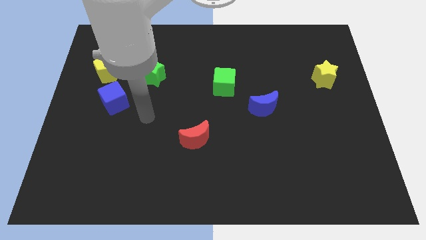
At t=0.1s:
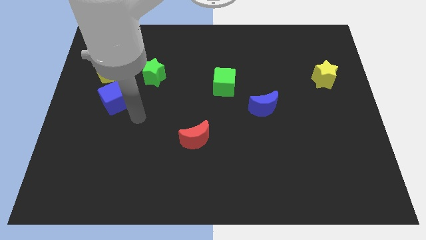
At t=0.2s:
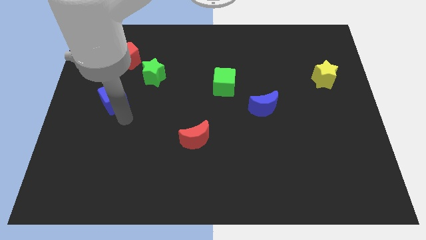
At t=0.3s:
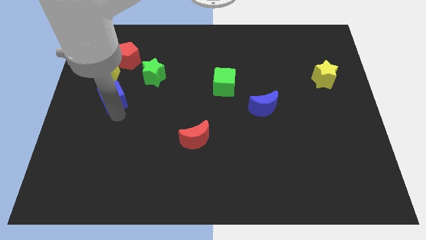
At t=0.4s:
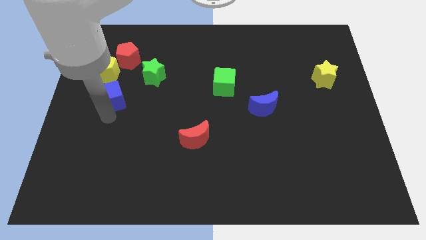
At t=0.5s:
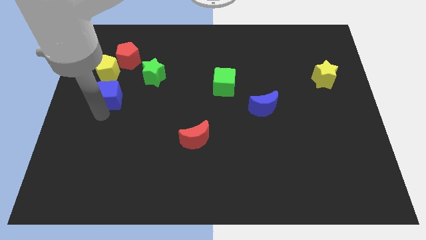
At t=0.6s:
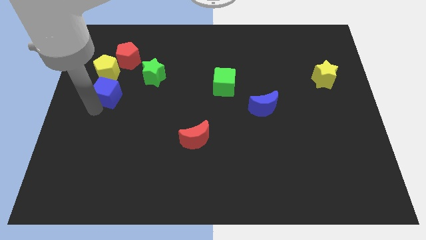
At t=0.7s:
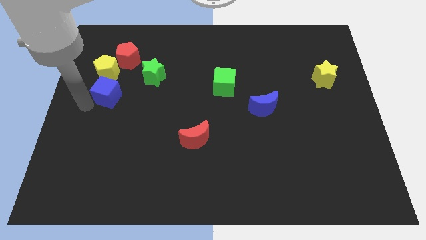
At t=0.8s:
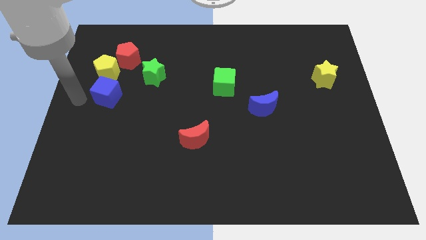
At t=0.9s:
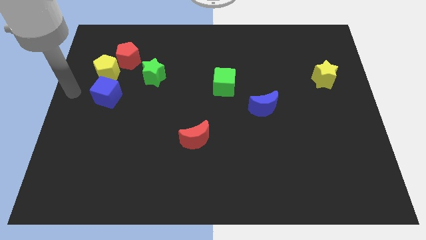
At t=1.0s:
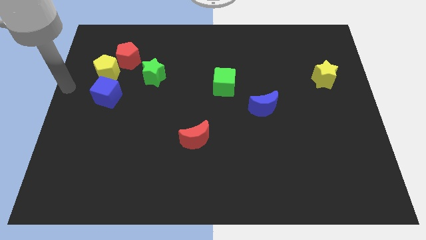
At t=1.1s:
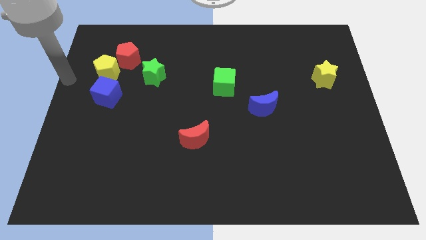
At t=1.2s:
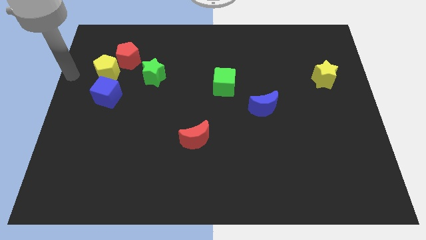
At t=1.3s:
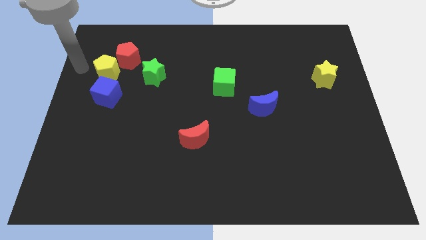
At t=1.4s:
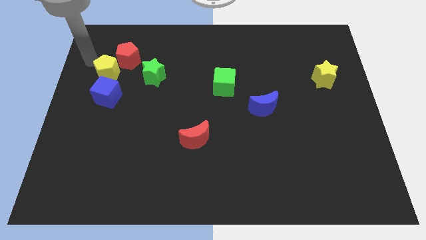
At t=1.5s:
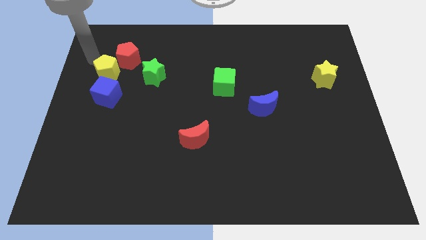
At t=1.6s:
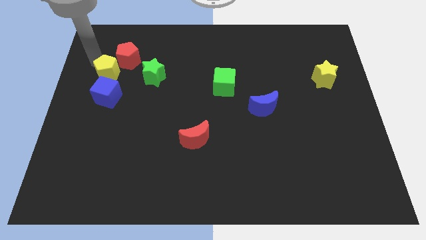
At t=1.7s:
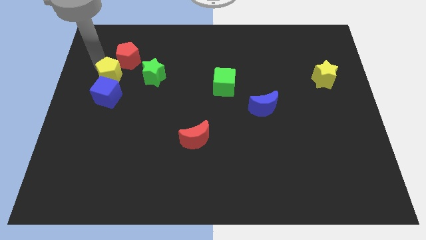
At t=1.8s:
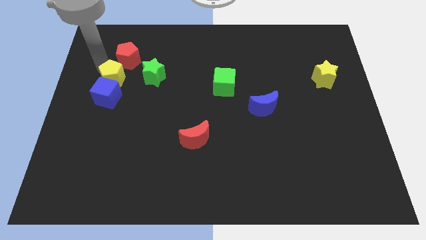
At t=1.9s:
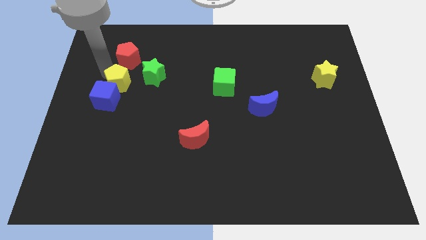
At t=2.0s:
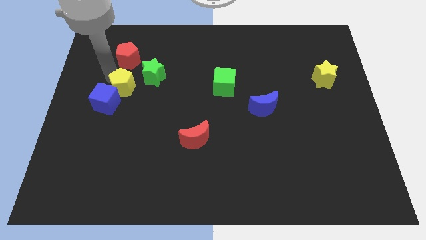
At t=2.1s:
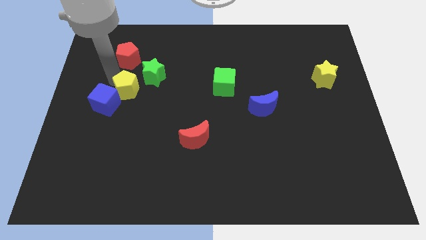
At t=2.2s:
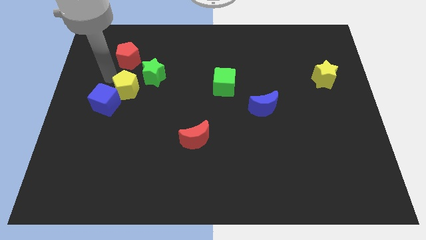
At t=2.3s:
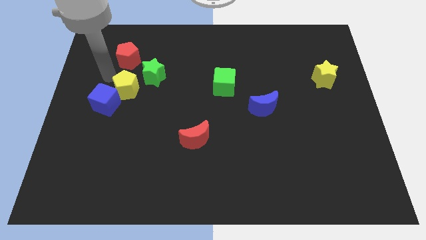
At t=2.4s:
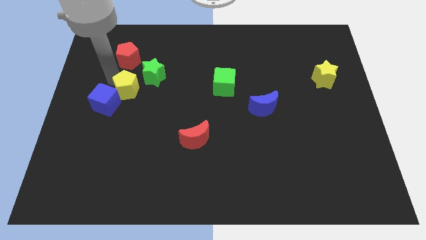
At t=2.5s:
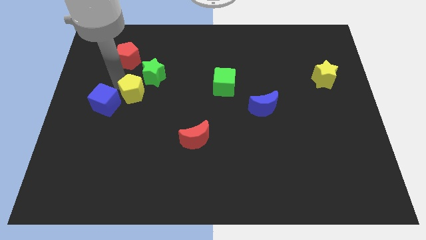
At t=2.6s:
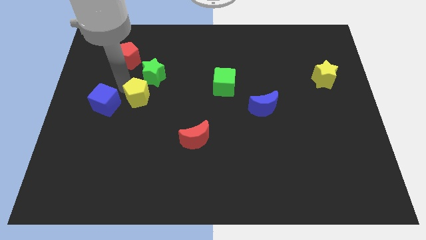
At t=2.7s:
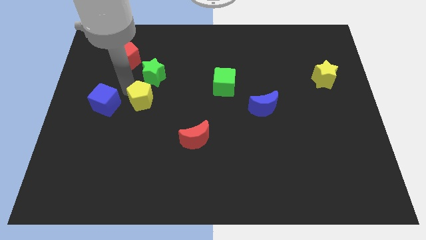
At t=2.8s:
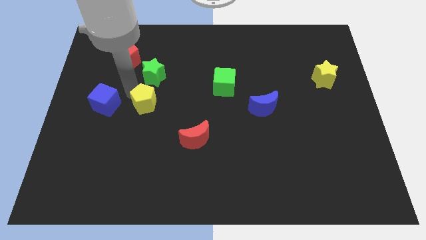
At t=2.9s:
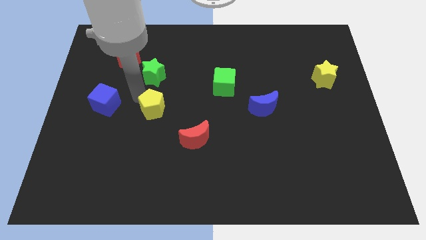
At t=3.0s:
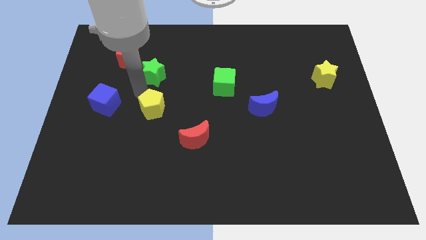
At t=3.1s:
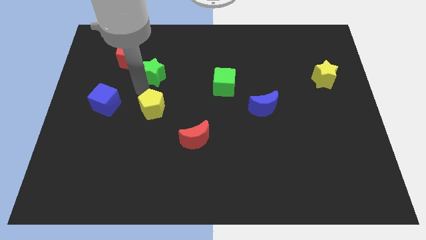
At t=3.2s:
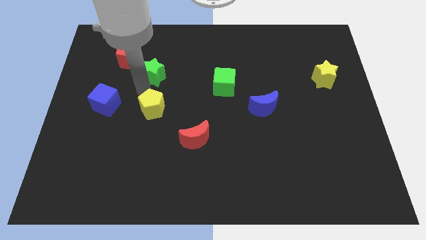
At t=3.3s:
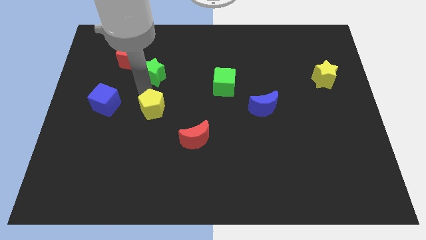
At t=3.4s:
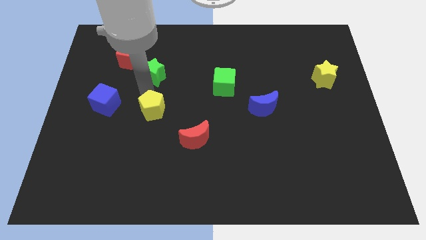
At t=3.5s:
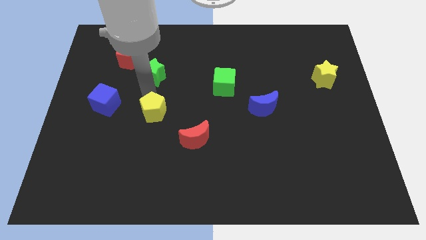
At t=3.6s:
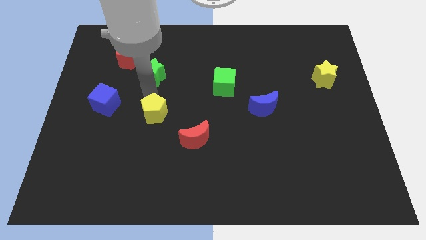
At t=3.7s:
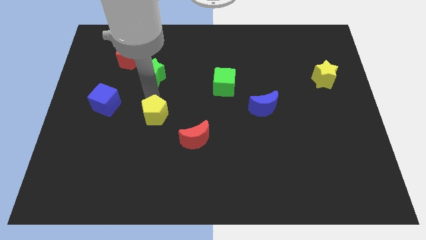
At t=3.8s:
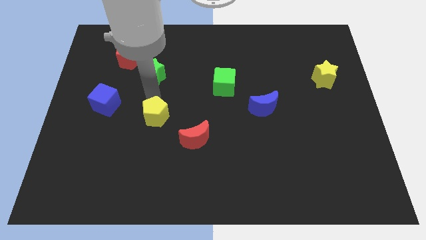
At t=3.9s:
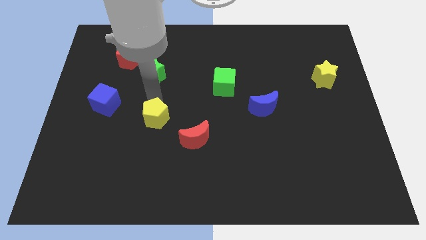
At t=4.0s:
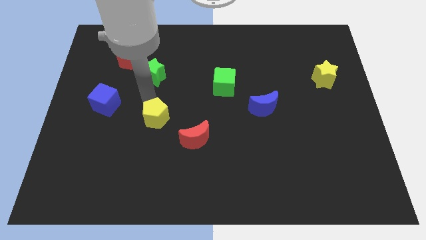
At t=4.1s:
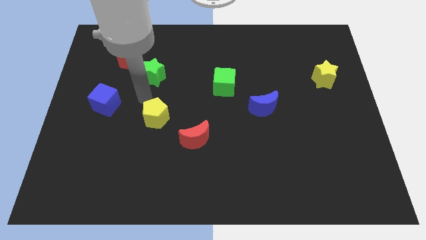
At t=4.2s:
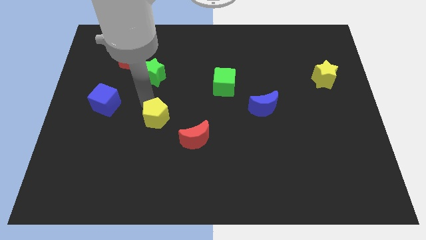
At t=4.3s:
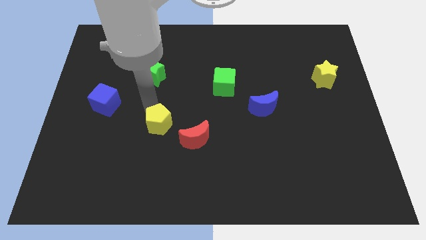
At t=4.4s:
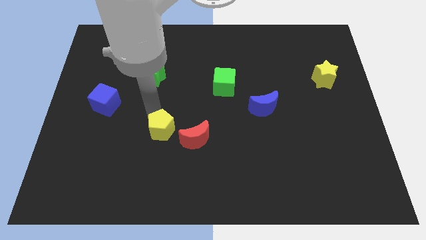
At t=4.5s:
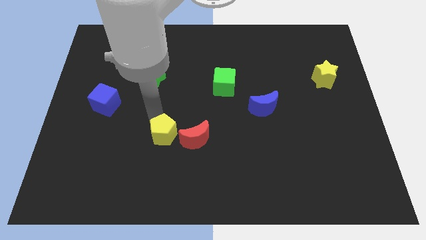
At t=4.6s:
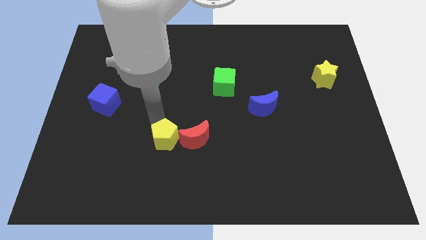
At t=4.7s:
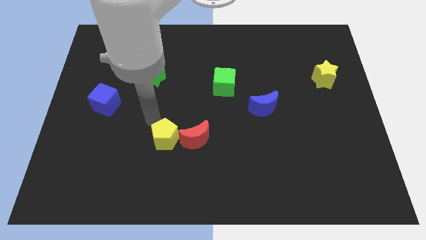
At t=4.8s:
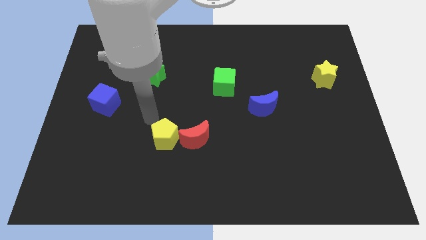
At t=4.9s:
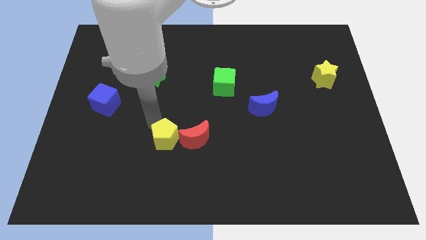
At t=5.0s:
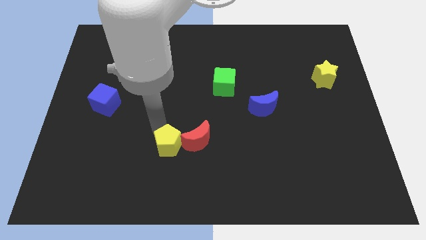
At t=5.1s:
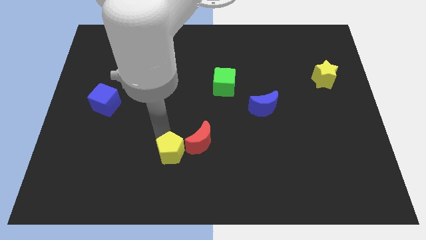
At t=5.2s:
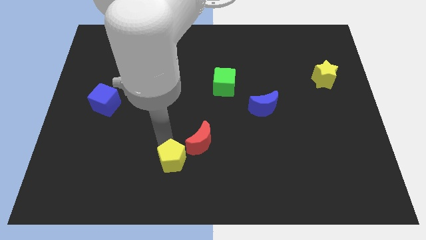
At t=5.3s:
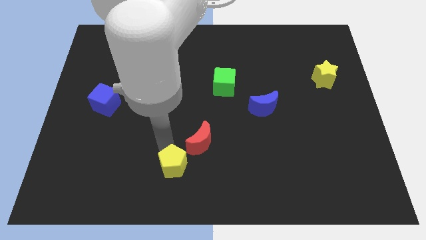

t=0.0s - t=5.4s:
push the yellow pentagon to the bottom

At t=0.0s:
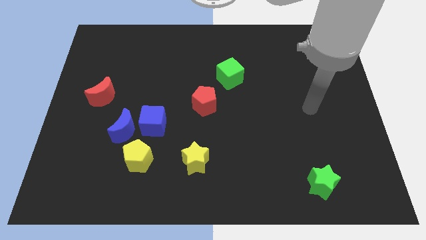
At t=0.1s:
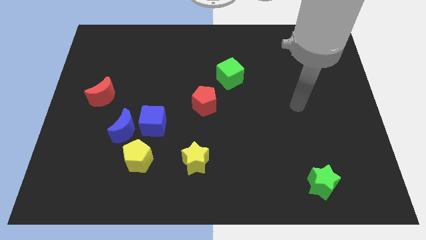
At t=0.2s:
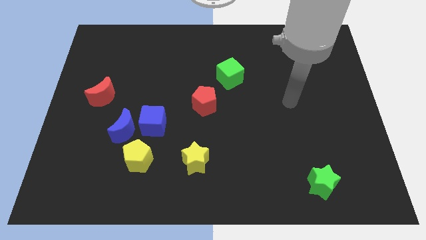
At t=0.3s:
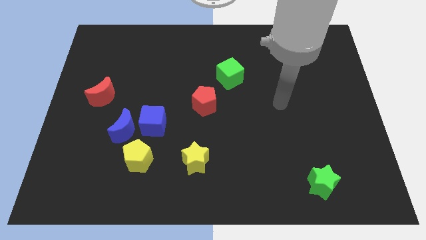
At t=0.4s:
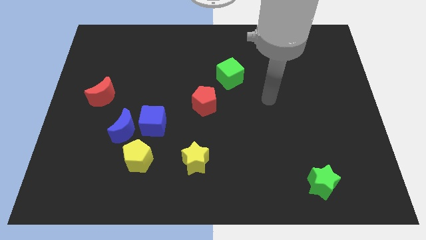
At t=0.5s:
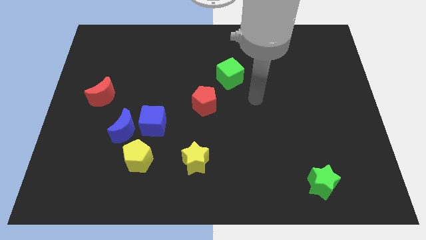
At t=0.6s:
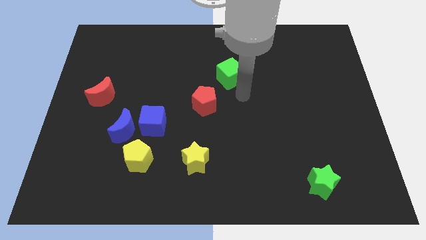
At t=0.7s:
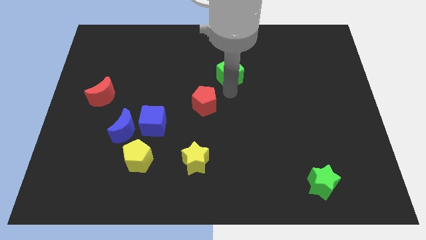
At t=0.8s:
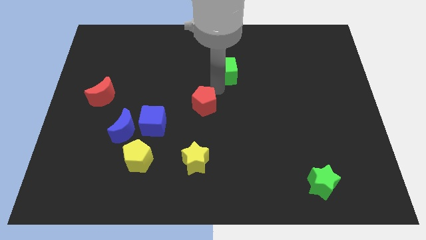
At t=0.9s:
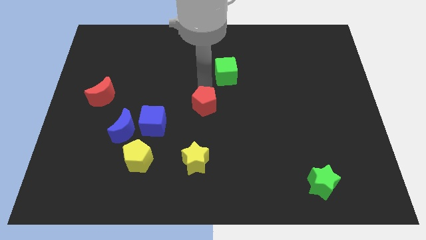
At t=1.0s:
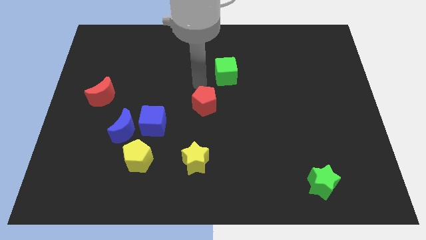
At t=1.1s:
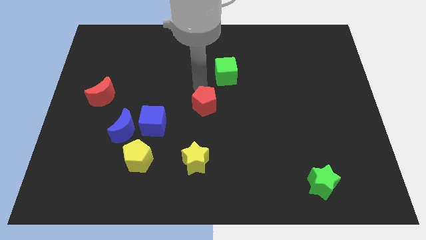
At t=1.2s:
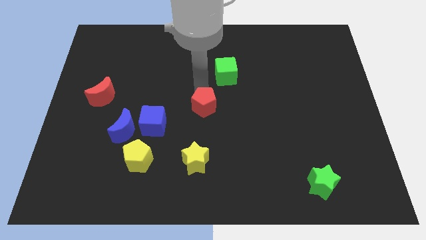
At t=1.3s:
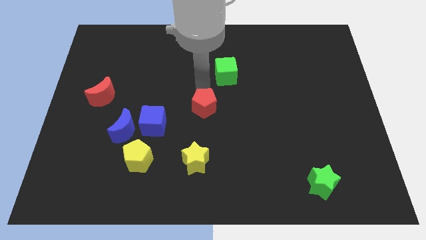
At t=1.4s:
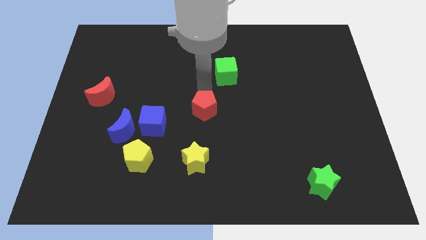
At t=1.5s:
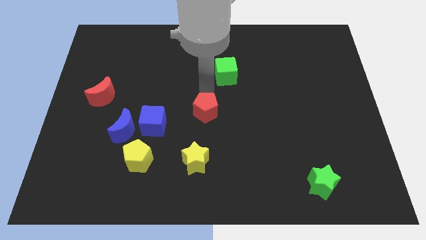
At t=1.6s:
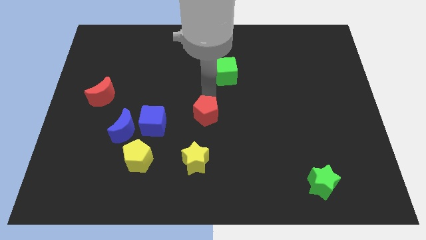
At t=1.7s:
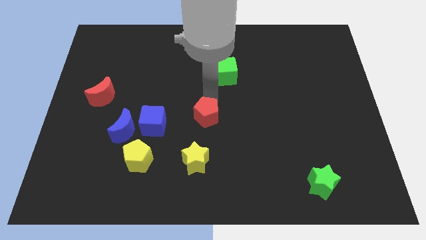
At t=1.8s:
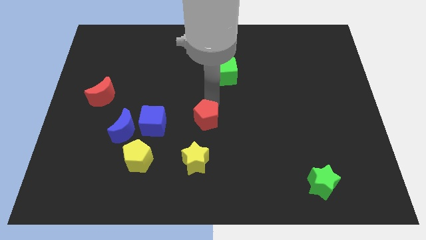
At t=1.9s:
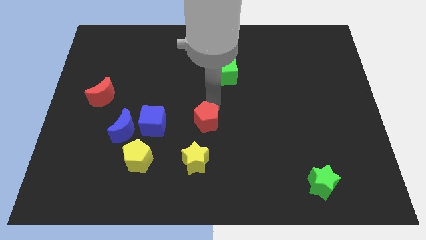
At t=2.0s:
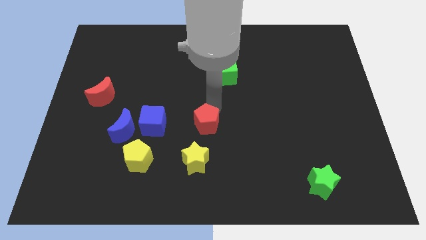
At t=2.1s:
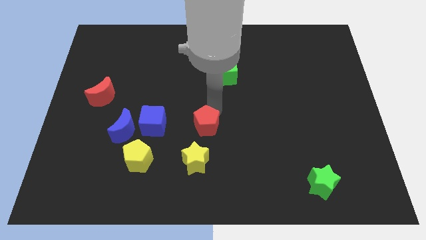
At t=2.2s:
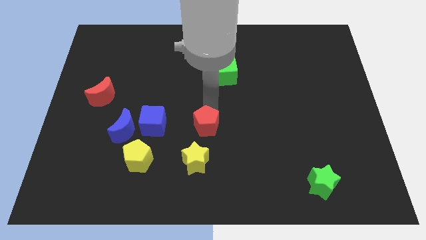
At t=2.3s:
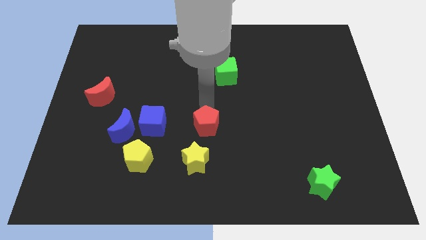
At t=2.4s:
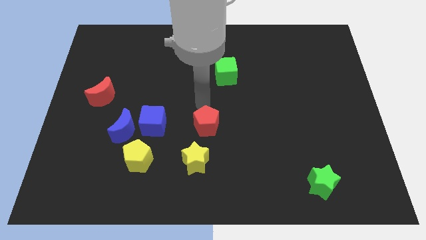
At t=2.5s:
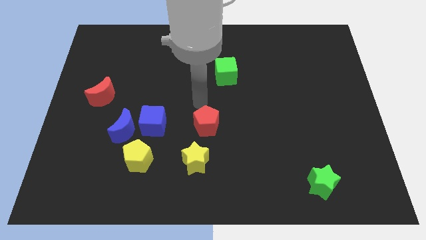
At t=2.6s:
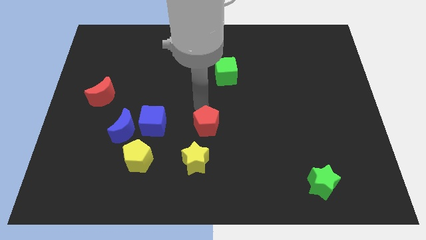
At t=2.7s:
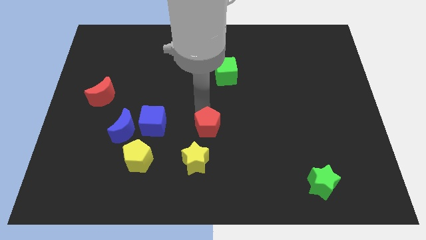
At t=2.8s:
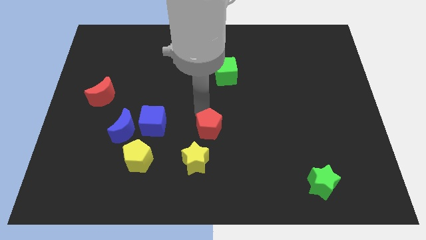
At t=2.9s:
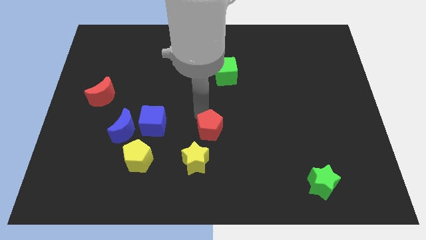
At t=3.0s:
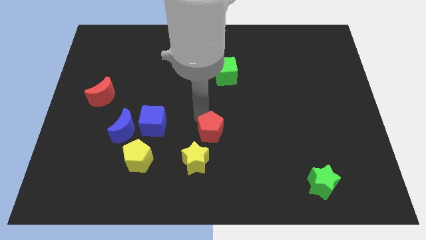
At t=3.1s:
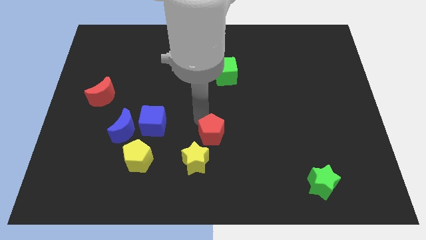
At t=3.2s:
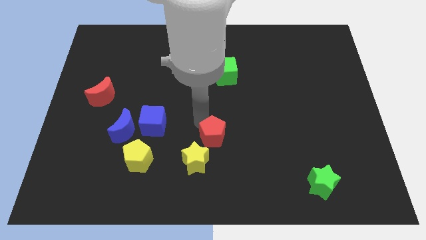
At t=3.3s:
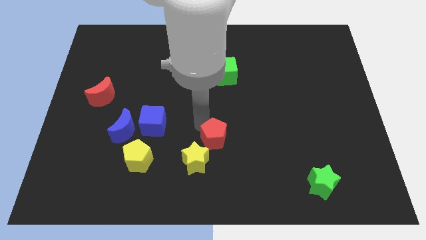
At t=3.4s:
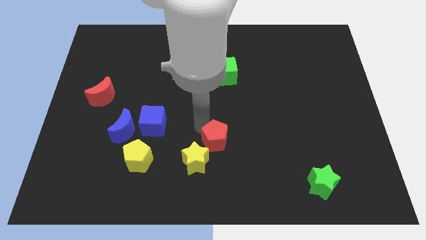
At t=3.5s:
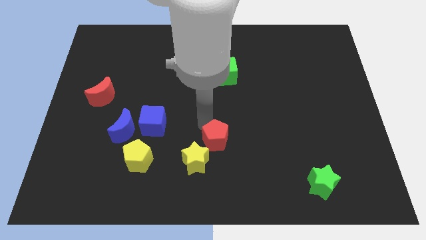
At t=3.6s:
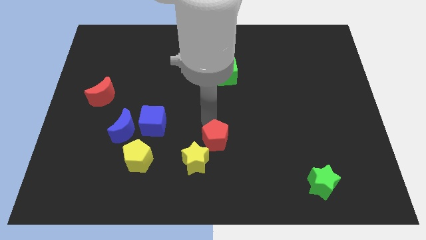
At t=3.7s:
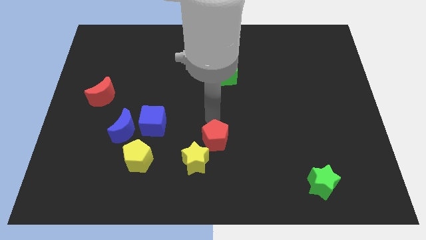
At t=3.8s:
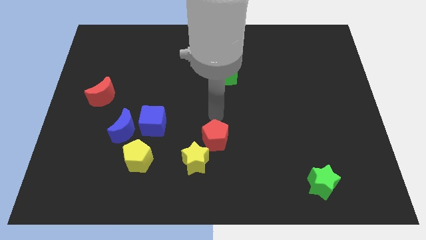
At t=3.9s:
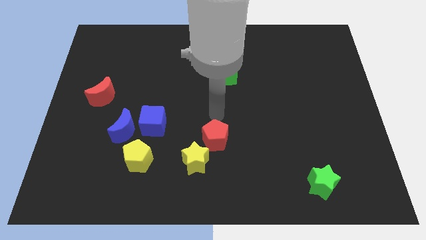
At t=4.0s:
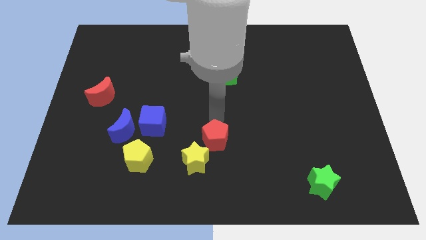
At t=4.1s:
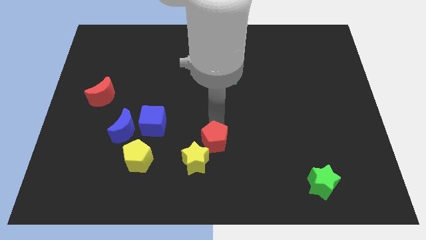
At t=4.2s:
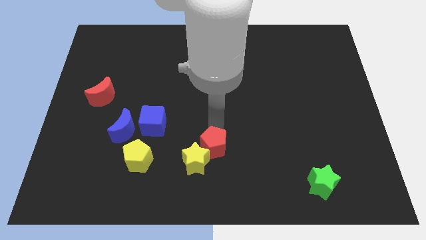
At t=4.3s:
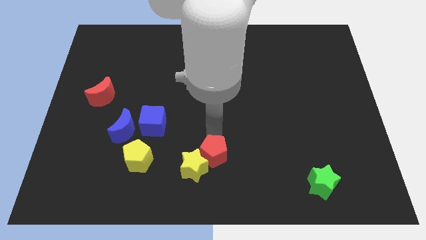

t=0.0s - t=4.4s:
slide the red pentagon to the bottom side
